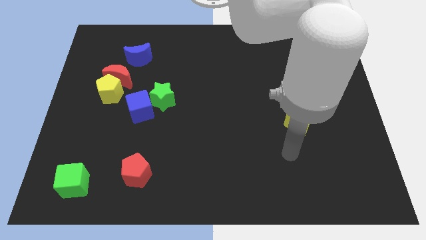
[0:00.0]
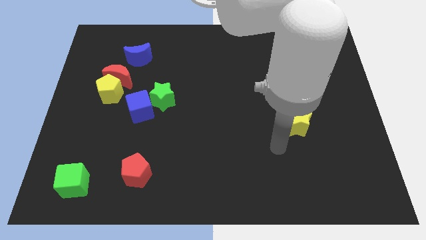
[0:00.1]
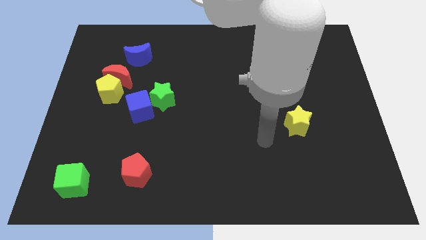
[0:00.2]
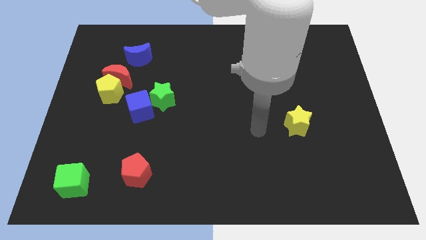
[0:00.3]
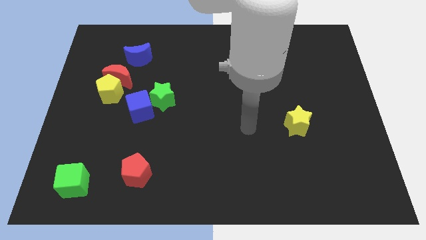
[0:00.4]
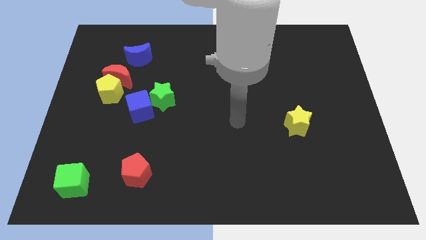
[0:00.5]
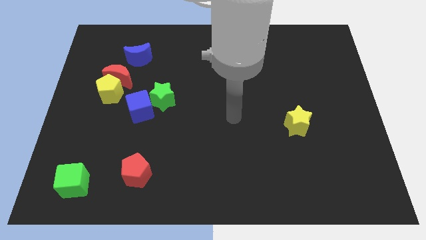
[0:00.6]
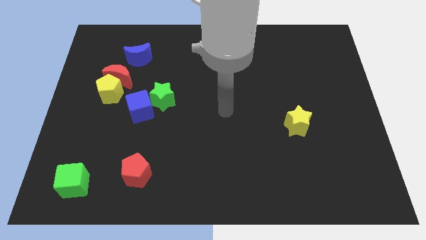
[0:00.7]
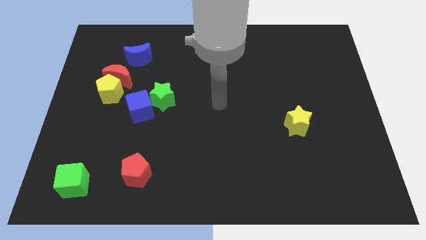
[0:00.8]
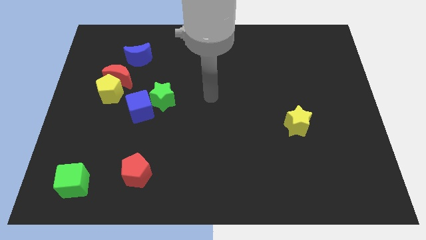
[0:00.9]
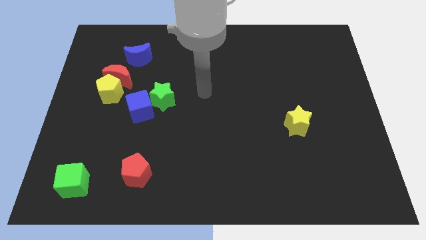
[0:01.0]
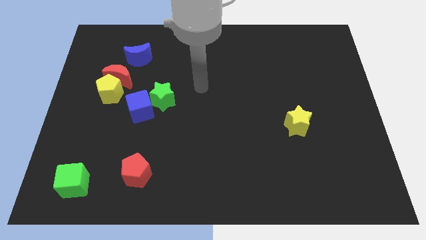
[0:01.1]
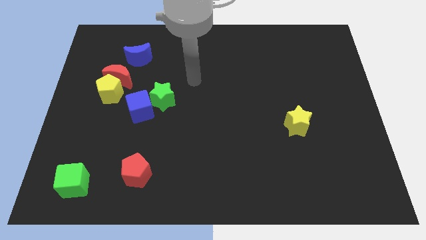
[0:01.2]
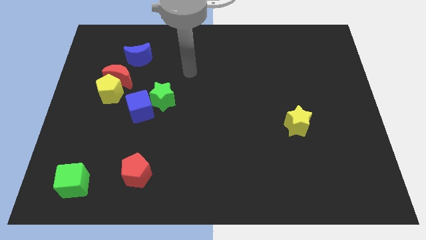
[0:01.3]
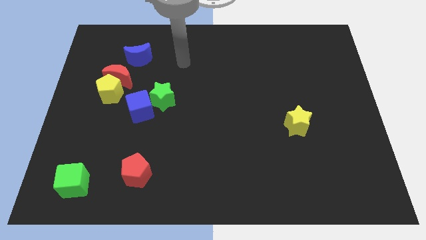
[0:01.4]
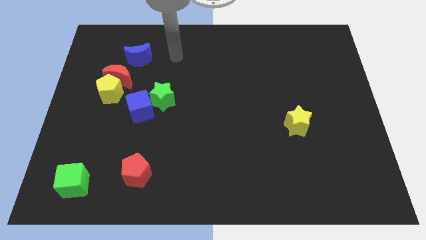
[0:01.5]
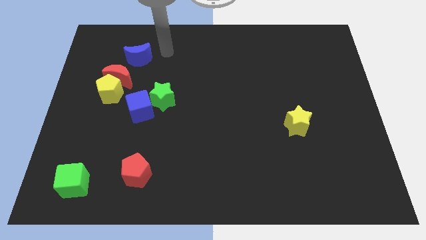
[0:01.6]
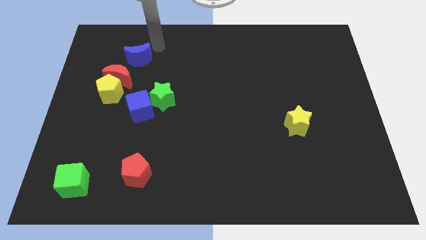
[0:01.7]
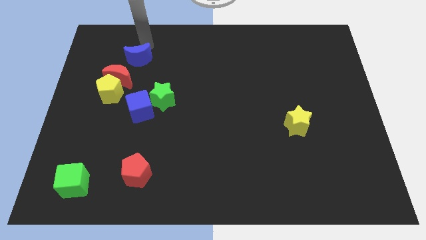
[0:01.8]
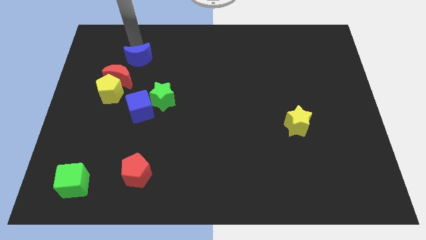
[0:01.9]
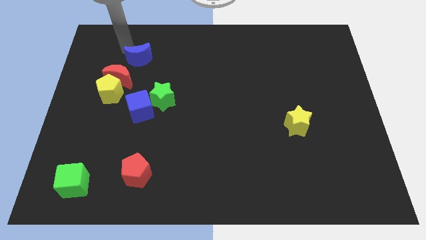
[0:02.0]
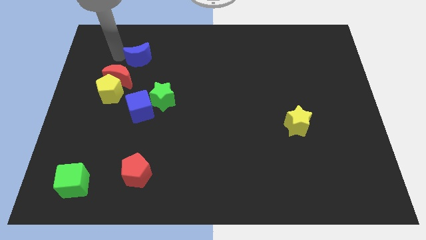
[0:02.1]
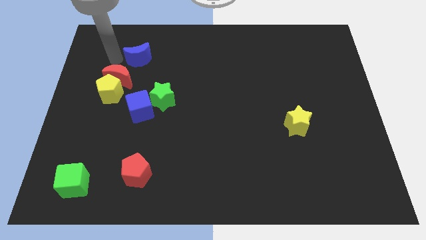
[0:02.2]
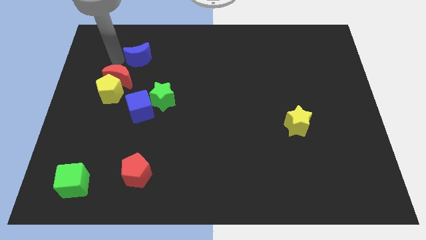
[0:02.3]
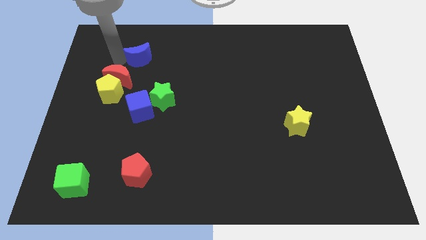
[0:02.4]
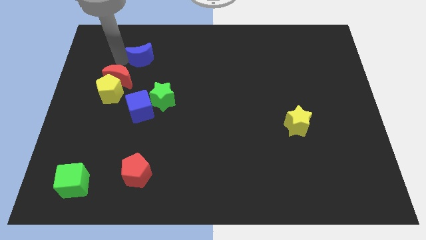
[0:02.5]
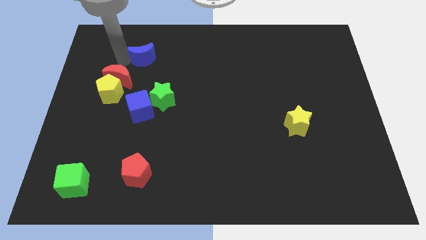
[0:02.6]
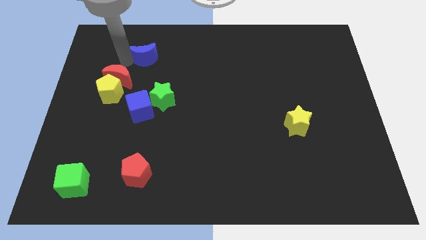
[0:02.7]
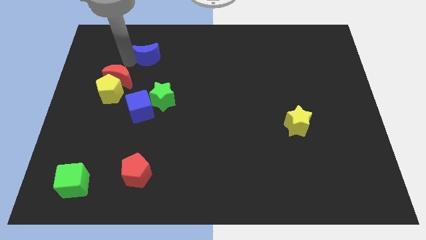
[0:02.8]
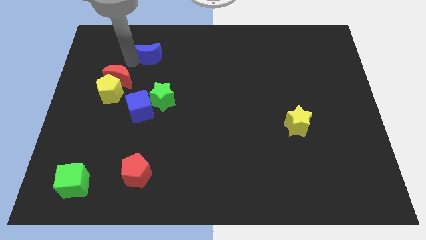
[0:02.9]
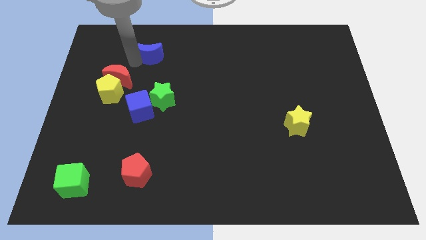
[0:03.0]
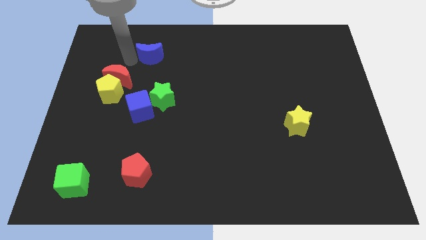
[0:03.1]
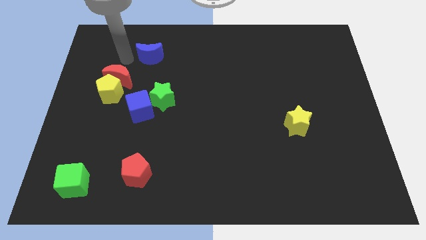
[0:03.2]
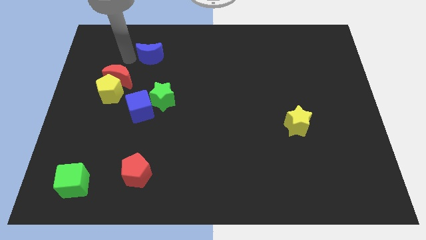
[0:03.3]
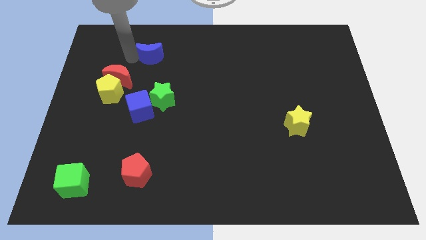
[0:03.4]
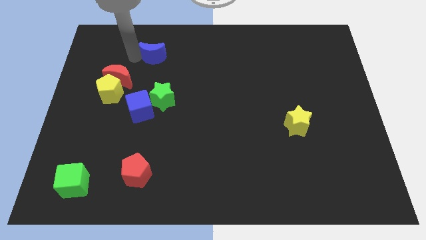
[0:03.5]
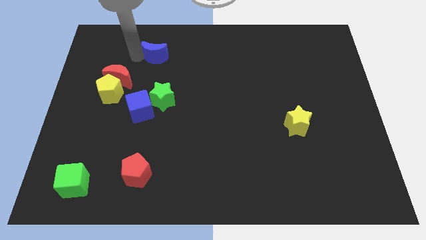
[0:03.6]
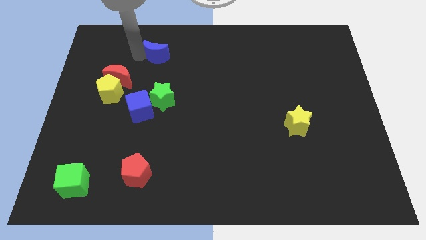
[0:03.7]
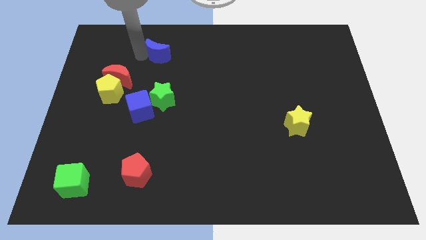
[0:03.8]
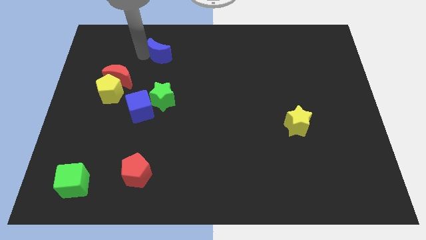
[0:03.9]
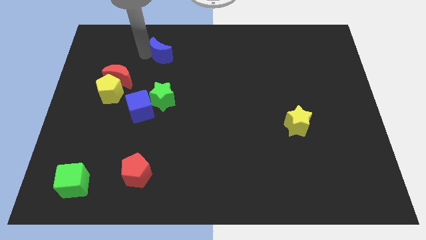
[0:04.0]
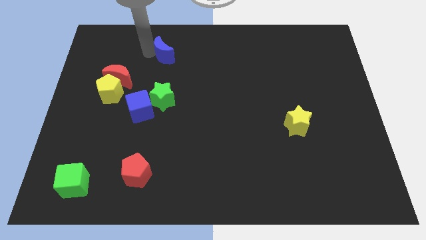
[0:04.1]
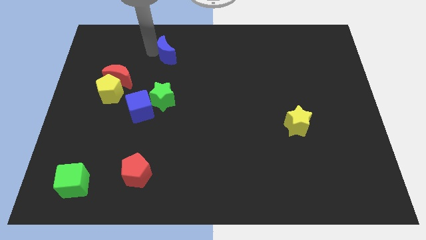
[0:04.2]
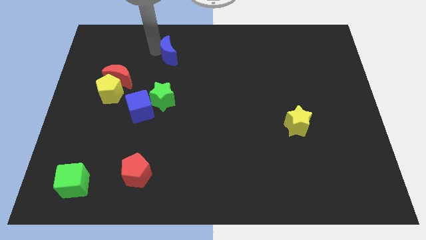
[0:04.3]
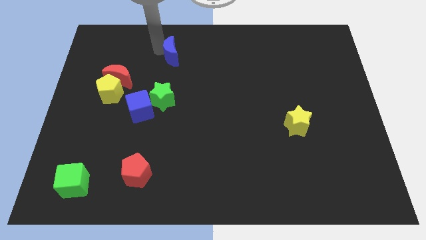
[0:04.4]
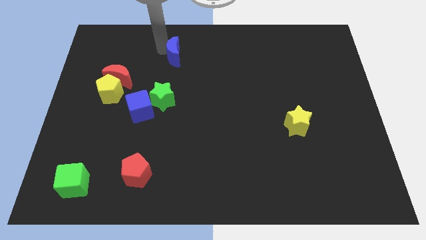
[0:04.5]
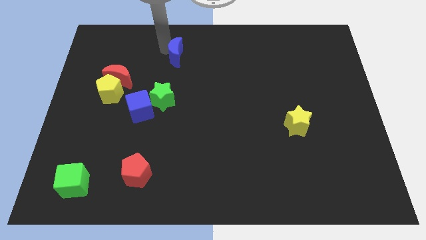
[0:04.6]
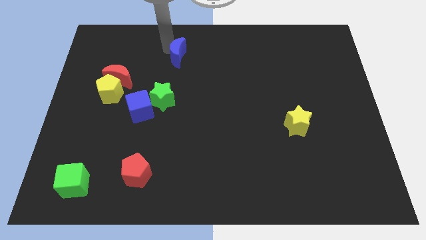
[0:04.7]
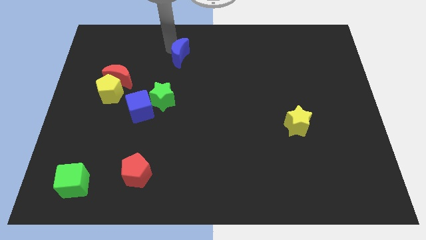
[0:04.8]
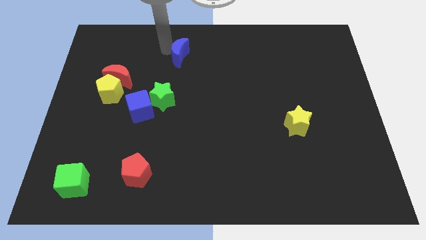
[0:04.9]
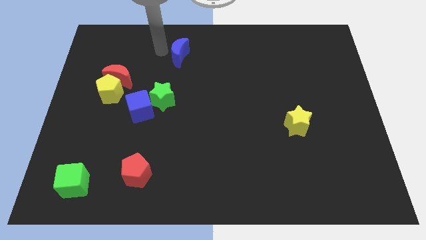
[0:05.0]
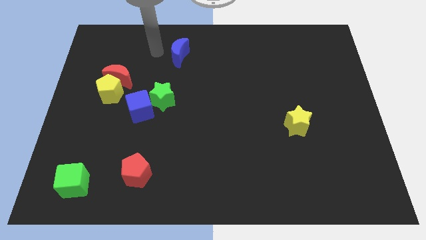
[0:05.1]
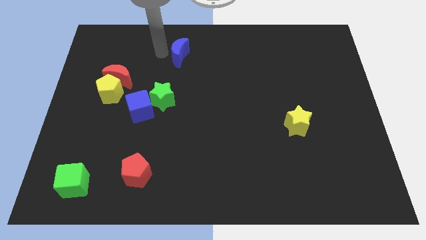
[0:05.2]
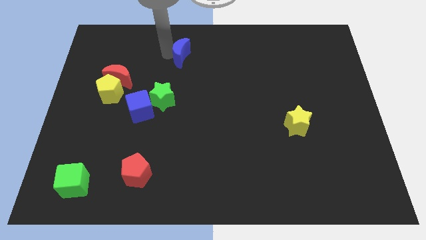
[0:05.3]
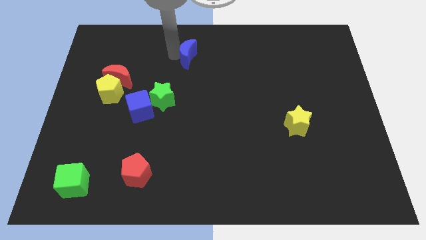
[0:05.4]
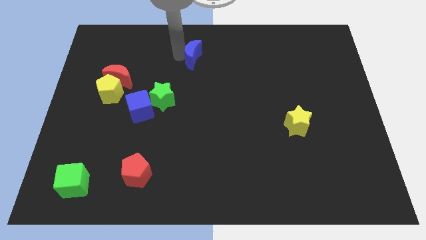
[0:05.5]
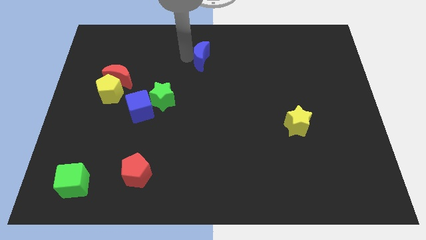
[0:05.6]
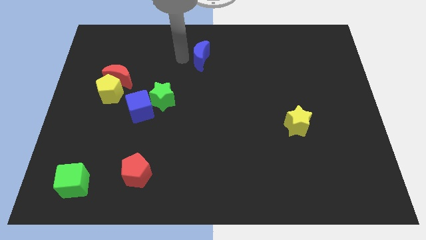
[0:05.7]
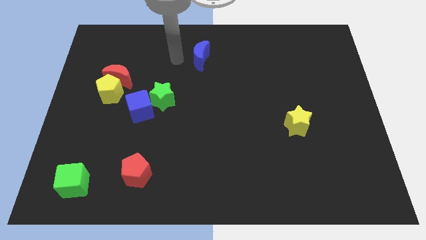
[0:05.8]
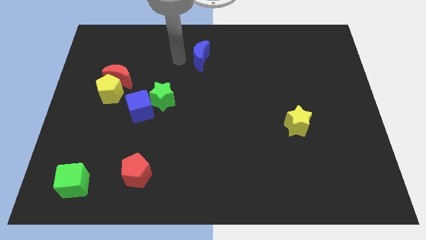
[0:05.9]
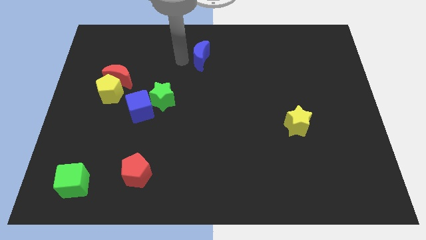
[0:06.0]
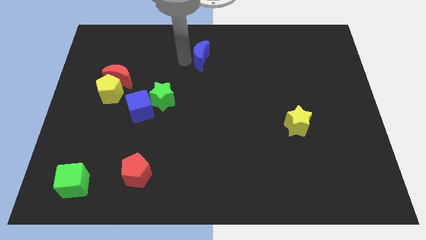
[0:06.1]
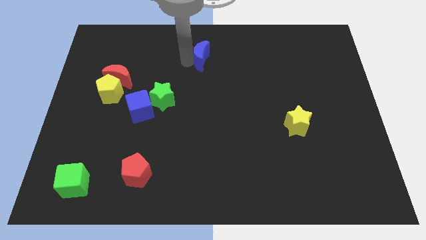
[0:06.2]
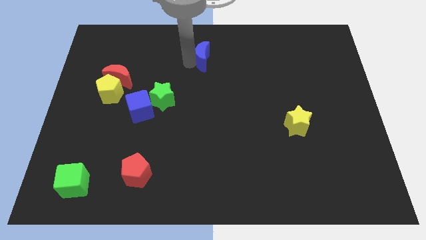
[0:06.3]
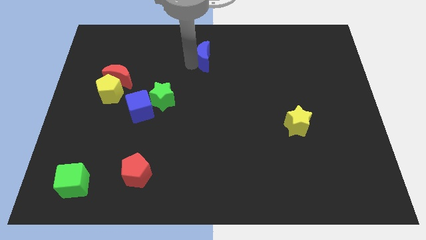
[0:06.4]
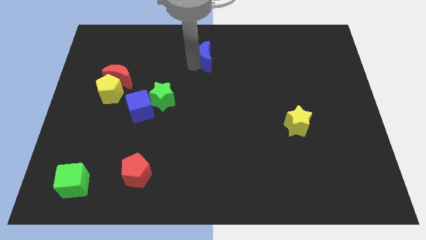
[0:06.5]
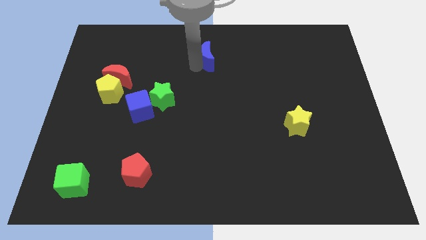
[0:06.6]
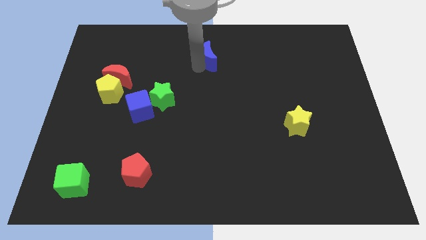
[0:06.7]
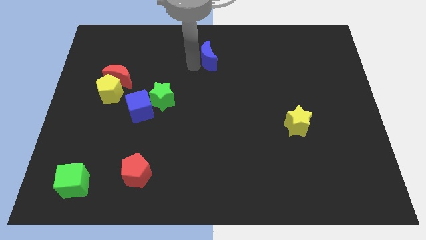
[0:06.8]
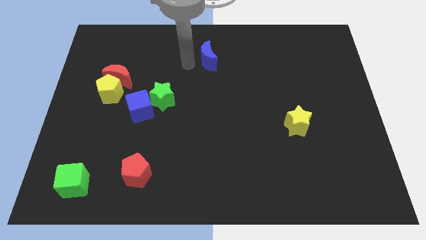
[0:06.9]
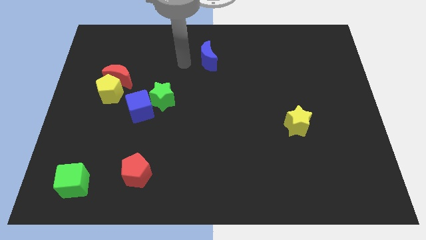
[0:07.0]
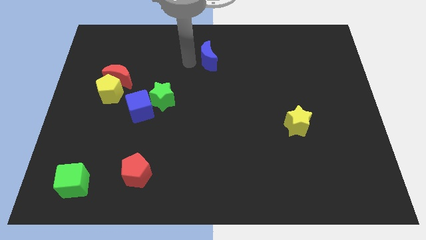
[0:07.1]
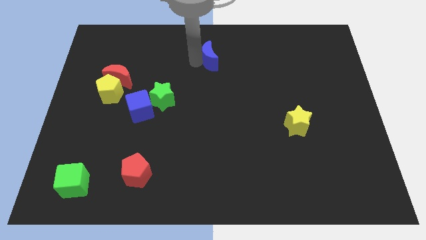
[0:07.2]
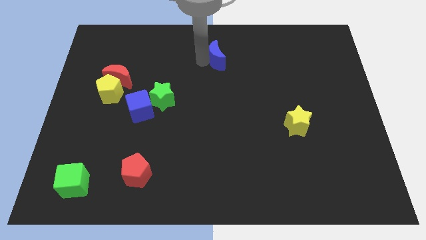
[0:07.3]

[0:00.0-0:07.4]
move the blue moon right

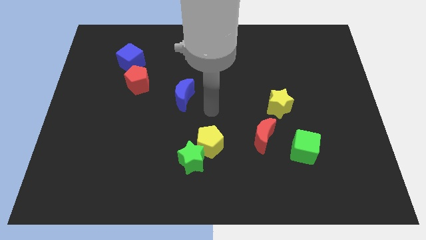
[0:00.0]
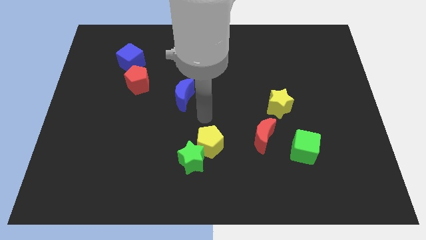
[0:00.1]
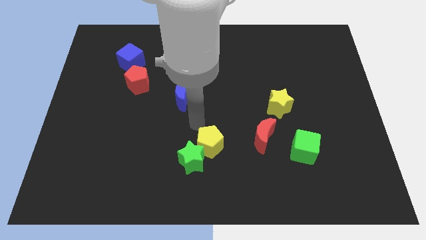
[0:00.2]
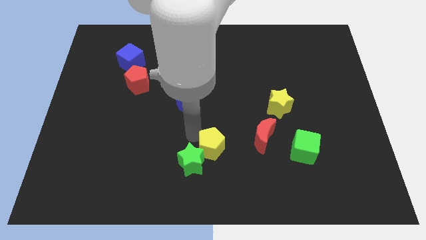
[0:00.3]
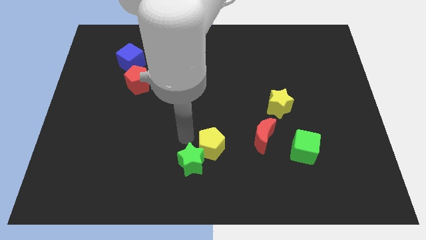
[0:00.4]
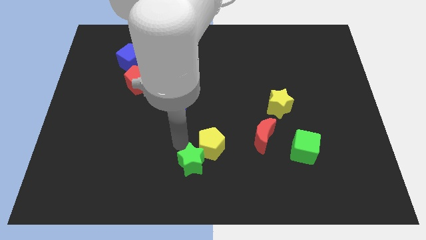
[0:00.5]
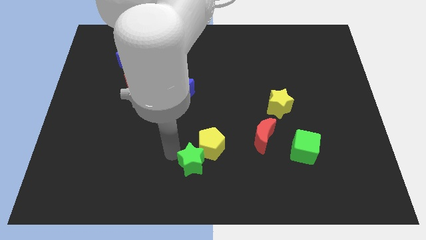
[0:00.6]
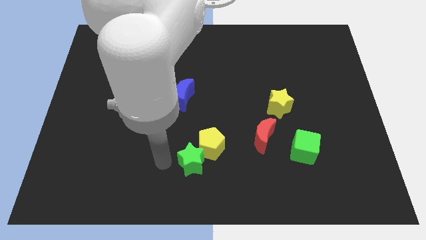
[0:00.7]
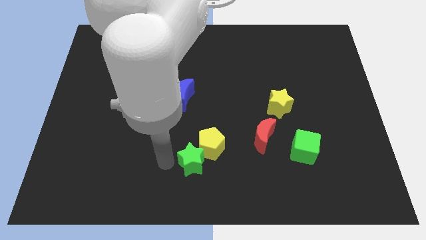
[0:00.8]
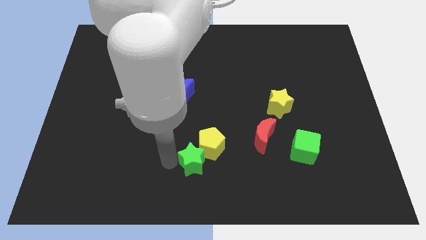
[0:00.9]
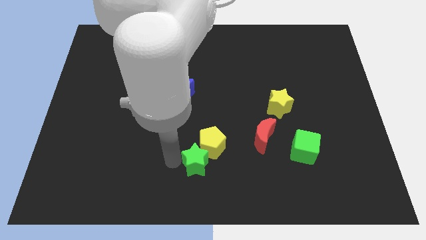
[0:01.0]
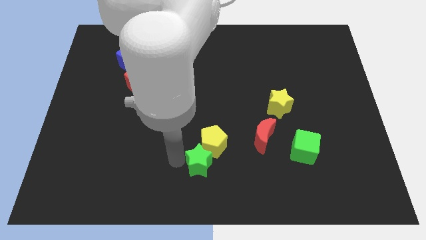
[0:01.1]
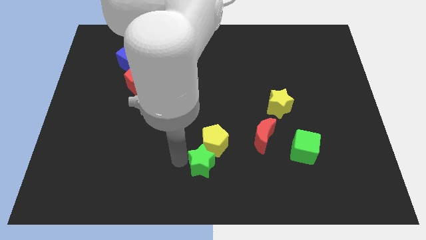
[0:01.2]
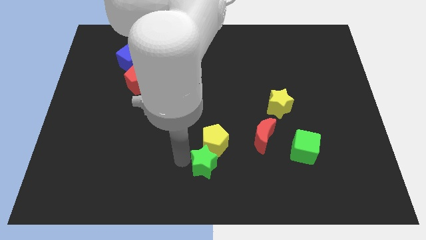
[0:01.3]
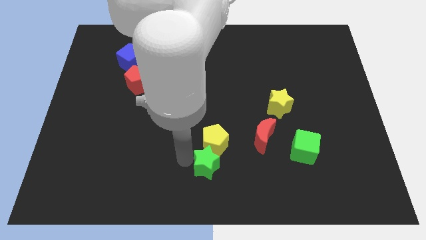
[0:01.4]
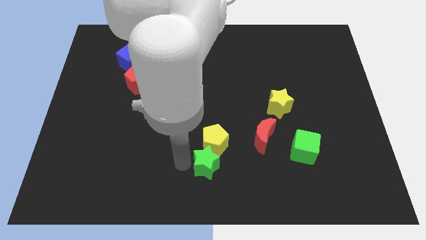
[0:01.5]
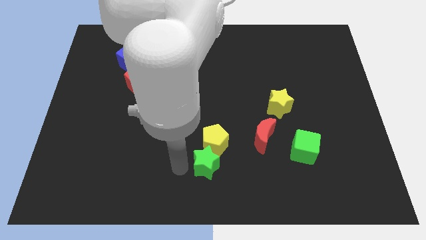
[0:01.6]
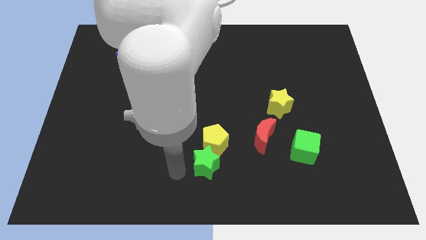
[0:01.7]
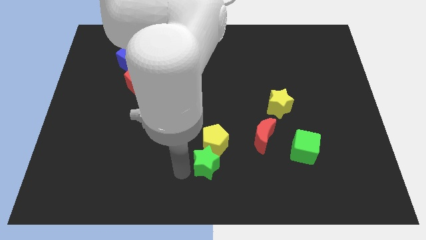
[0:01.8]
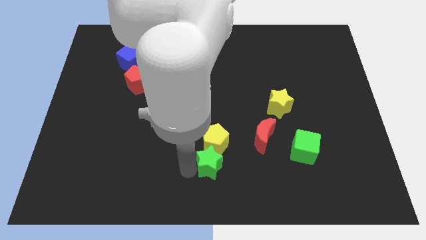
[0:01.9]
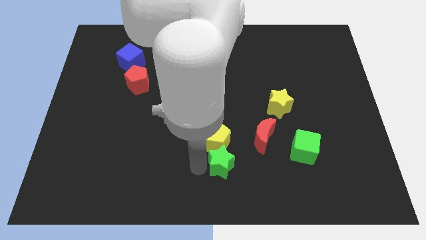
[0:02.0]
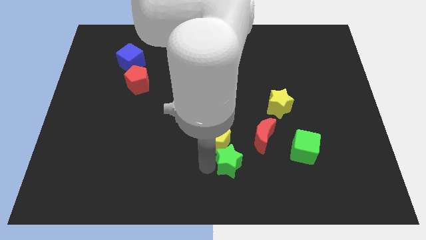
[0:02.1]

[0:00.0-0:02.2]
push the green star a bit to the right
